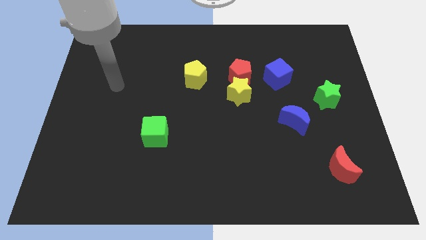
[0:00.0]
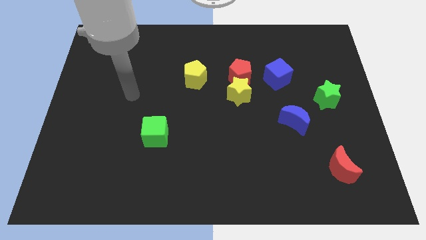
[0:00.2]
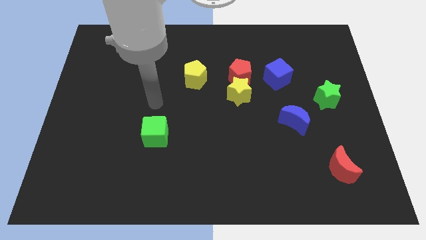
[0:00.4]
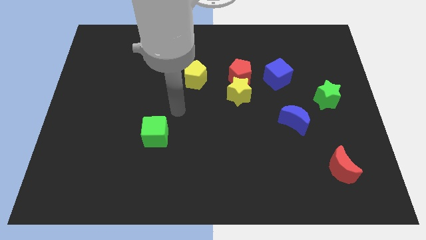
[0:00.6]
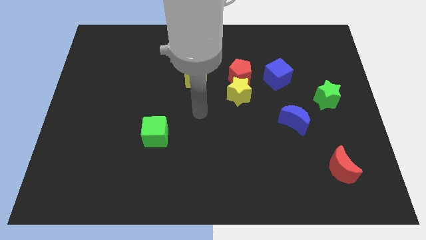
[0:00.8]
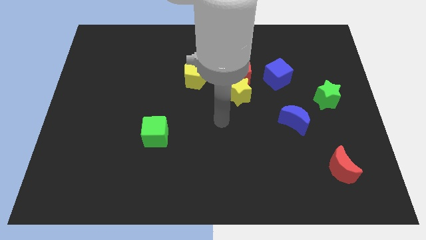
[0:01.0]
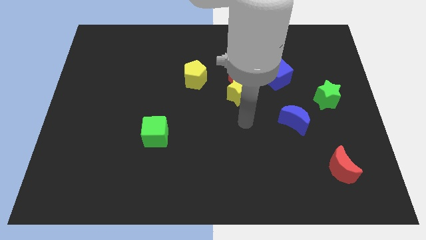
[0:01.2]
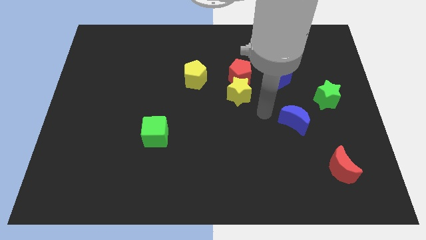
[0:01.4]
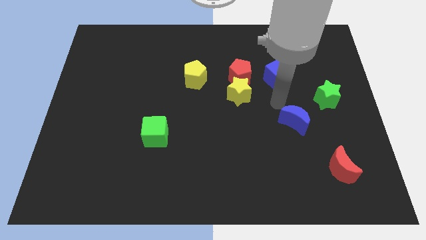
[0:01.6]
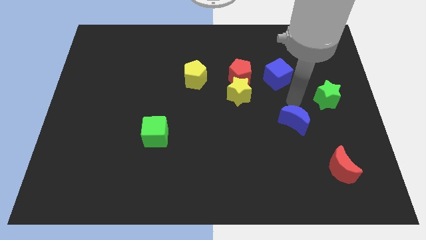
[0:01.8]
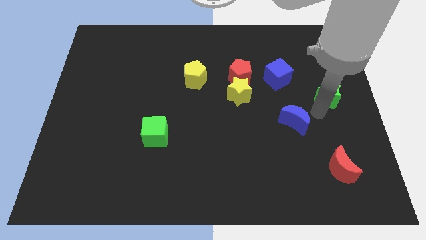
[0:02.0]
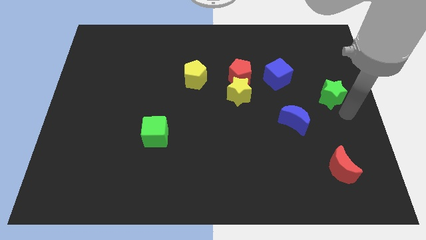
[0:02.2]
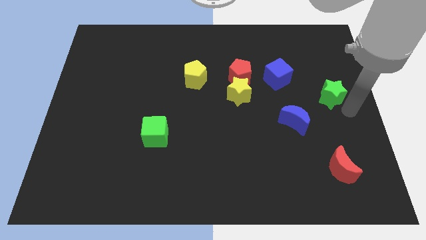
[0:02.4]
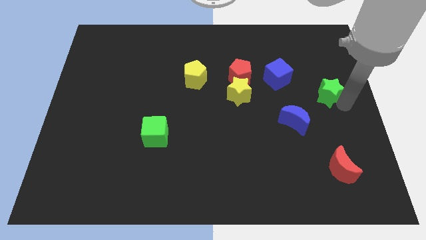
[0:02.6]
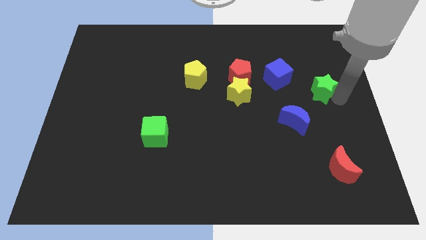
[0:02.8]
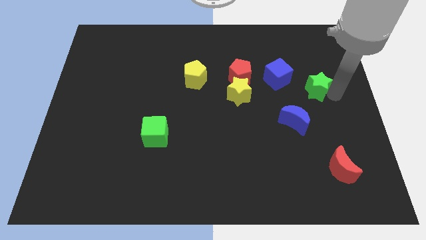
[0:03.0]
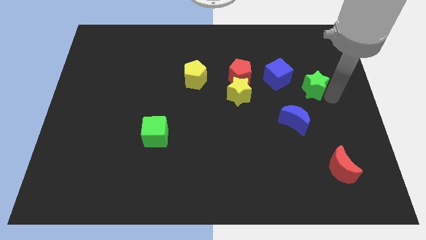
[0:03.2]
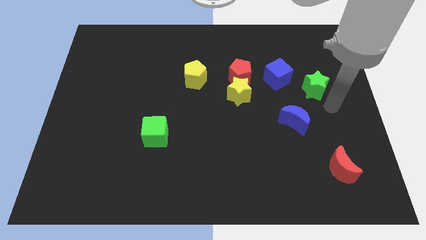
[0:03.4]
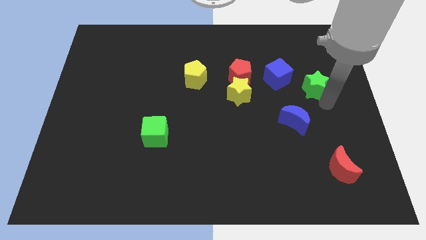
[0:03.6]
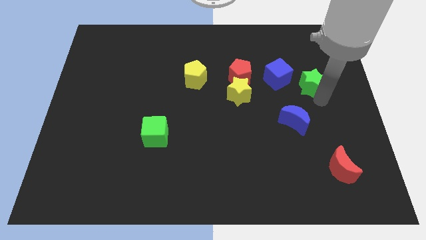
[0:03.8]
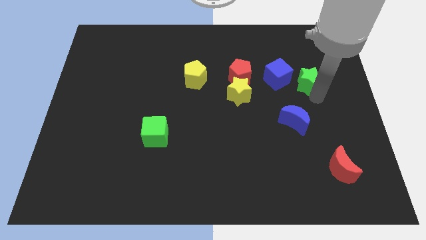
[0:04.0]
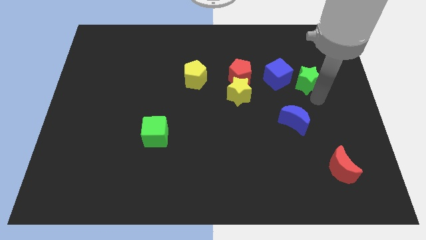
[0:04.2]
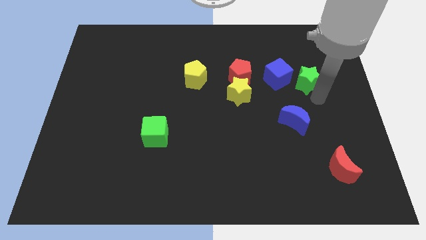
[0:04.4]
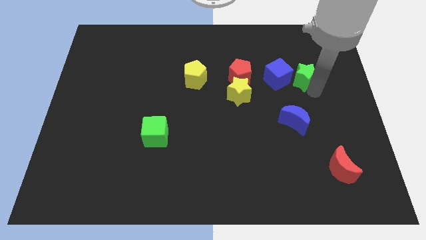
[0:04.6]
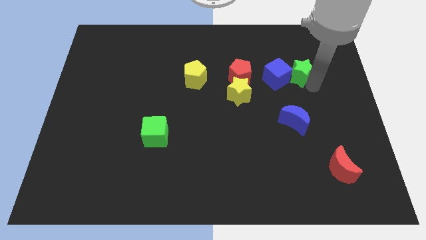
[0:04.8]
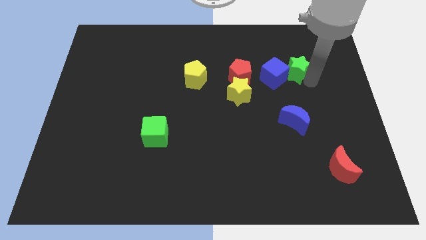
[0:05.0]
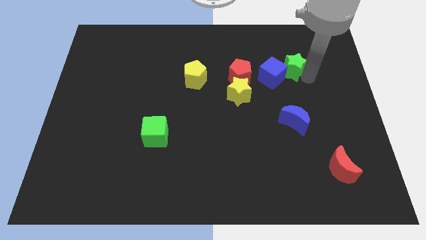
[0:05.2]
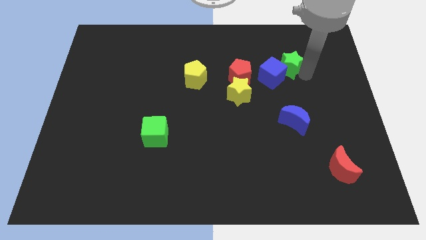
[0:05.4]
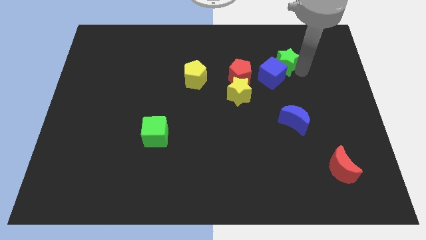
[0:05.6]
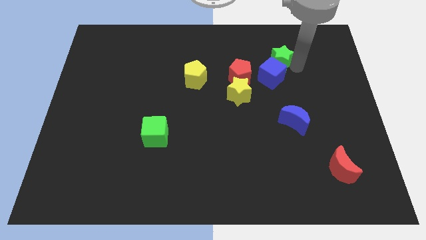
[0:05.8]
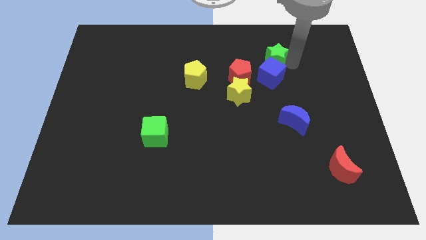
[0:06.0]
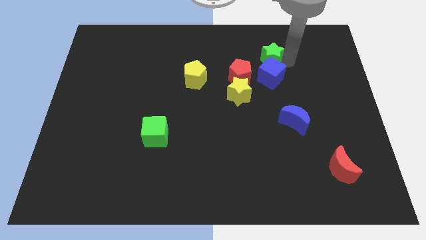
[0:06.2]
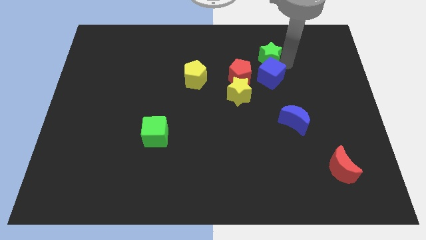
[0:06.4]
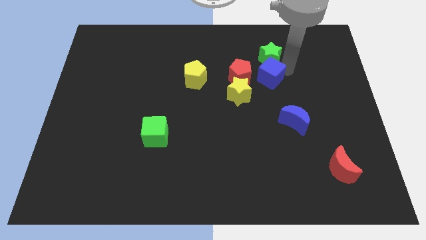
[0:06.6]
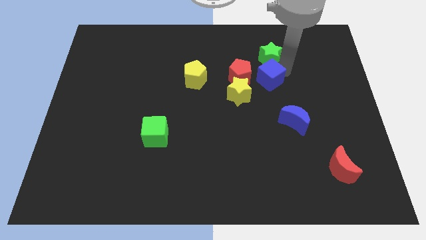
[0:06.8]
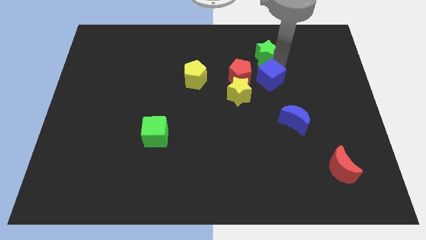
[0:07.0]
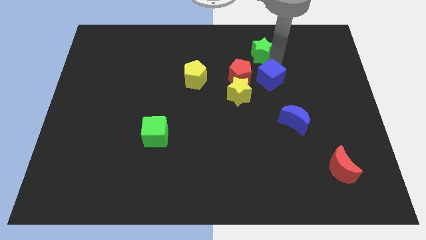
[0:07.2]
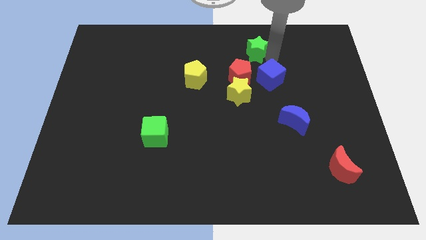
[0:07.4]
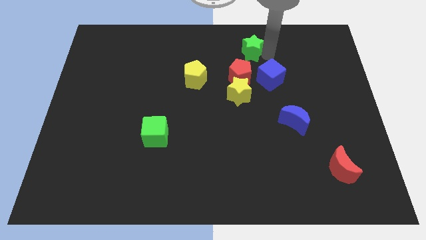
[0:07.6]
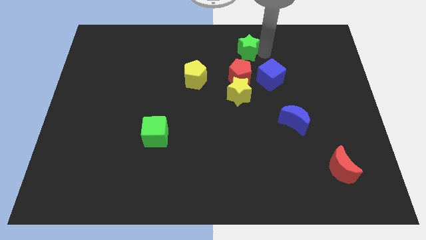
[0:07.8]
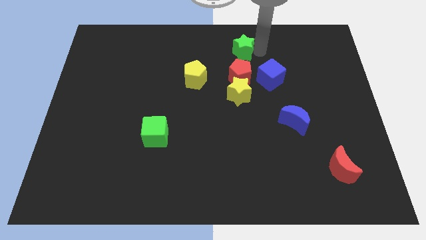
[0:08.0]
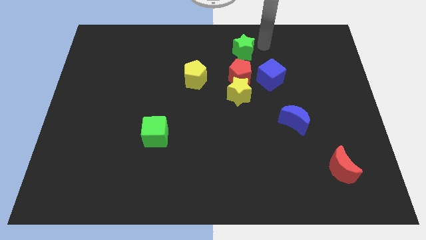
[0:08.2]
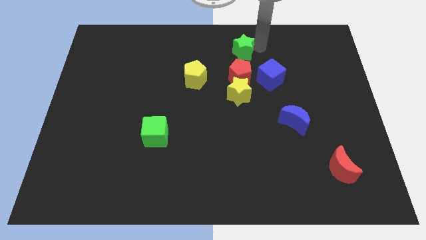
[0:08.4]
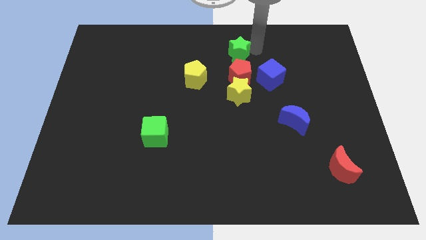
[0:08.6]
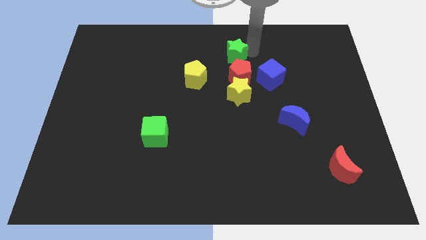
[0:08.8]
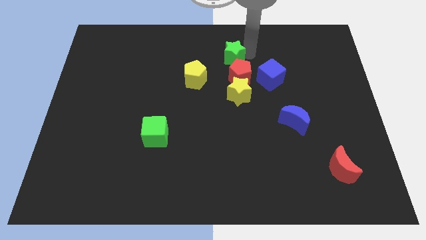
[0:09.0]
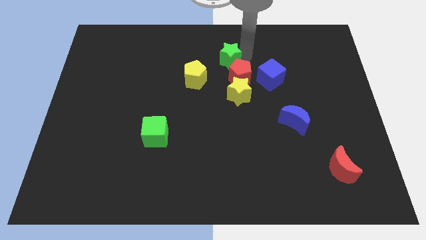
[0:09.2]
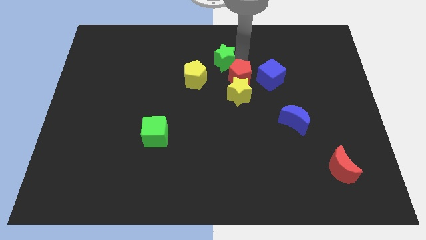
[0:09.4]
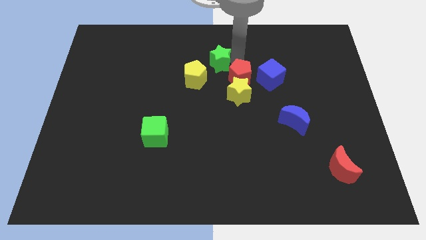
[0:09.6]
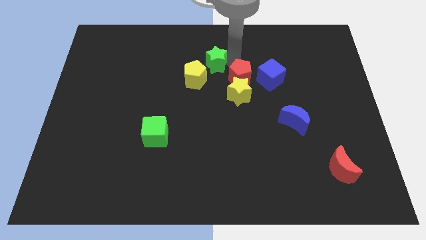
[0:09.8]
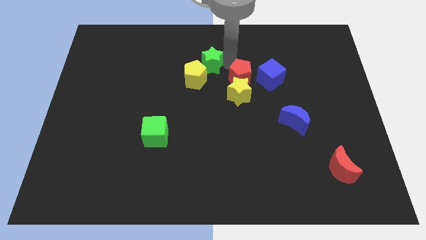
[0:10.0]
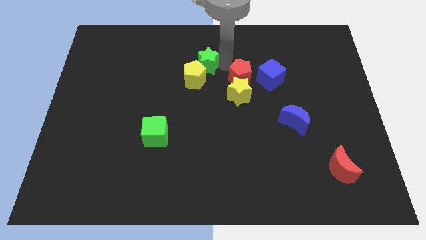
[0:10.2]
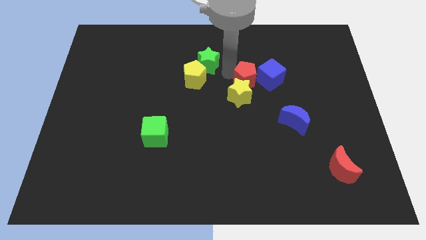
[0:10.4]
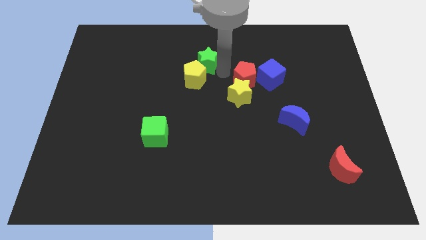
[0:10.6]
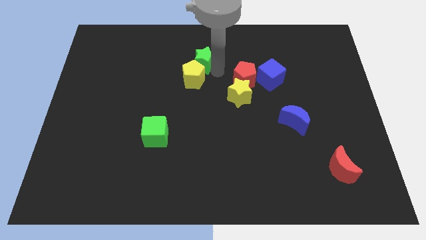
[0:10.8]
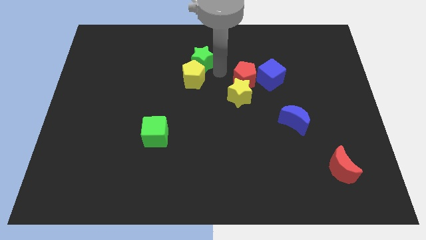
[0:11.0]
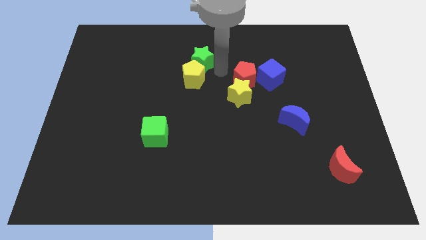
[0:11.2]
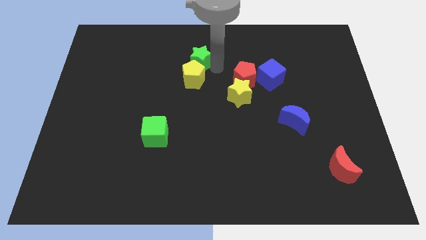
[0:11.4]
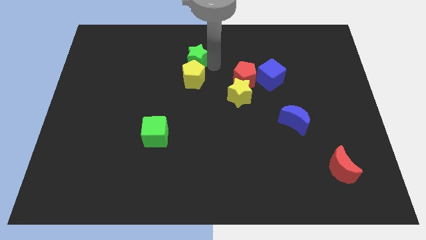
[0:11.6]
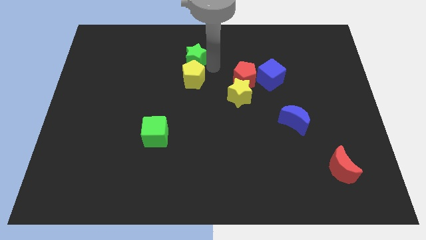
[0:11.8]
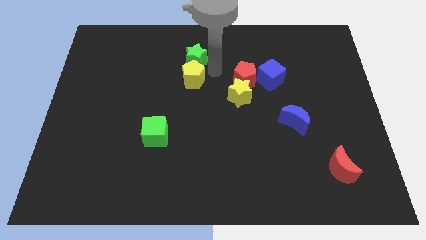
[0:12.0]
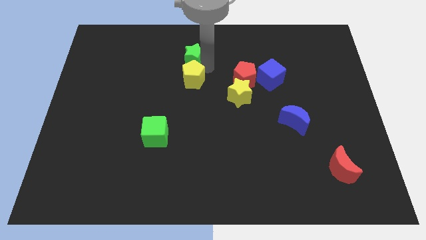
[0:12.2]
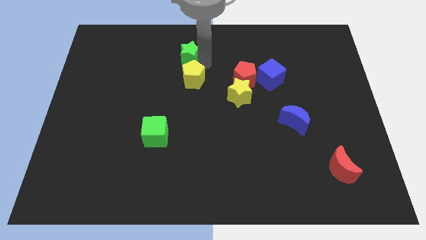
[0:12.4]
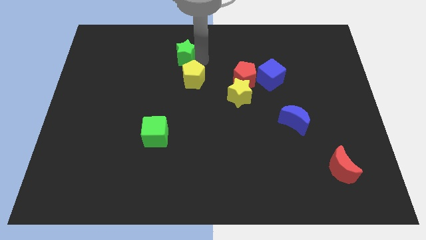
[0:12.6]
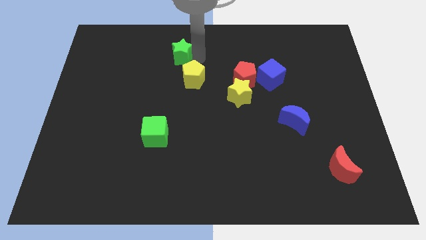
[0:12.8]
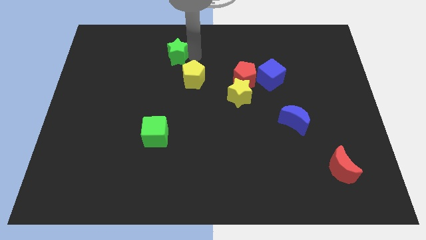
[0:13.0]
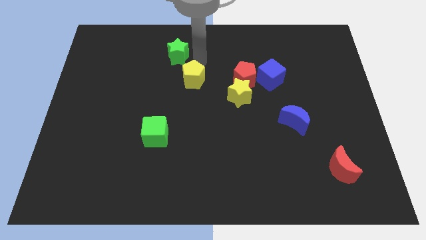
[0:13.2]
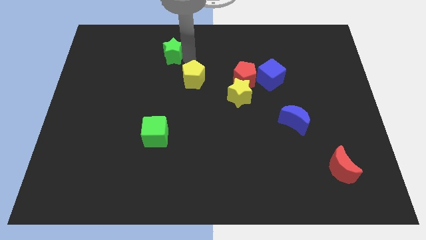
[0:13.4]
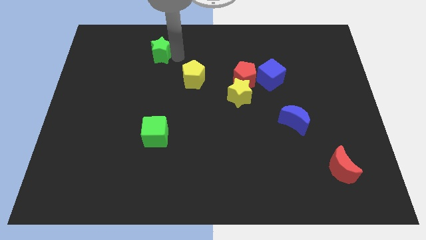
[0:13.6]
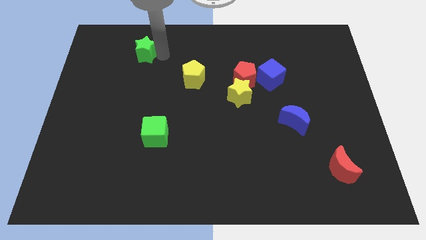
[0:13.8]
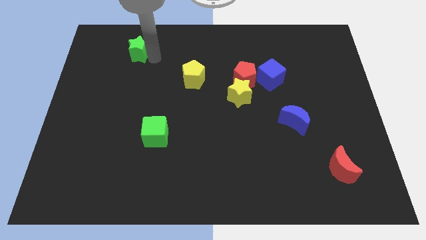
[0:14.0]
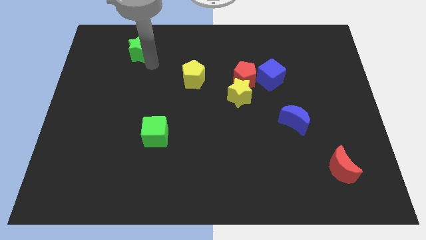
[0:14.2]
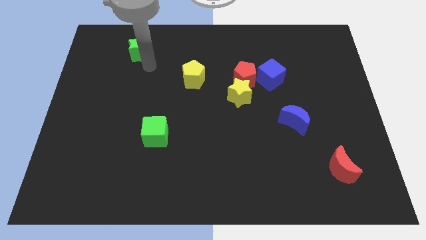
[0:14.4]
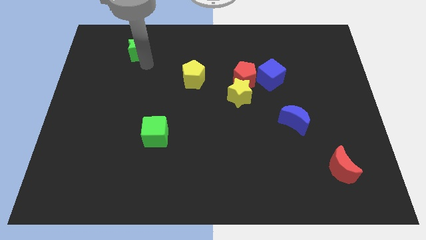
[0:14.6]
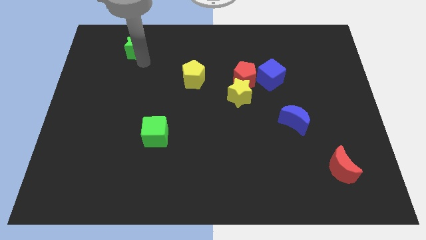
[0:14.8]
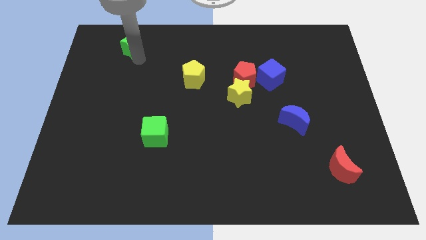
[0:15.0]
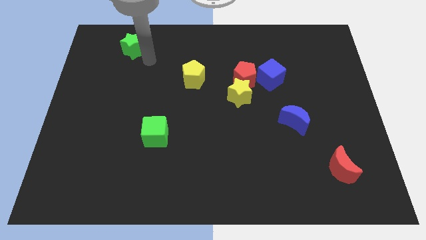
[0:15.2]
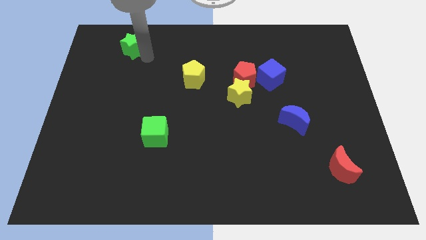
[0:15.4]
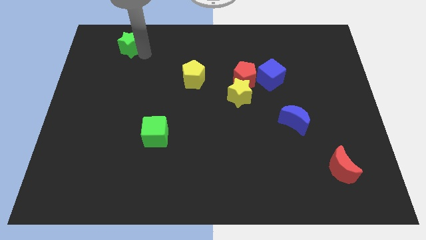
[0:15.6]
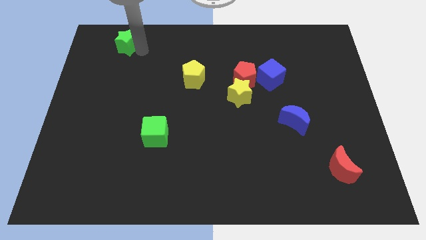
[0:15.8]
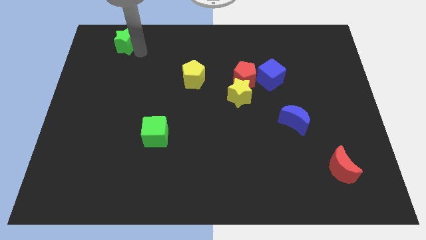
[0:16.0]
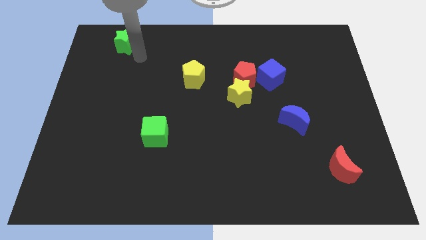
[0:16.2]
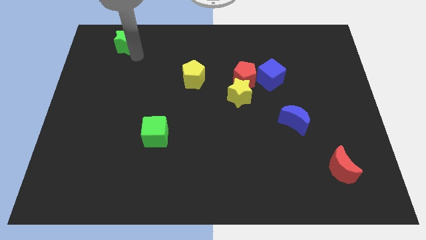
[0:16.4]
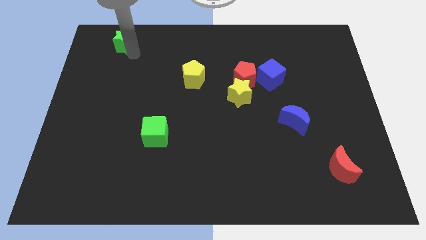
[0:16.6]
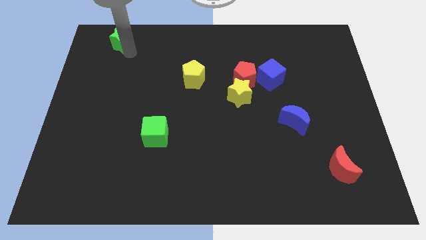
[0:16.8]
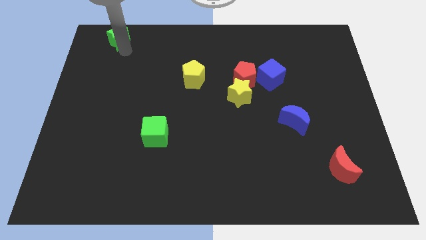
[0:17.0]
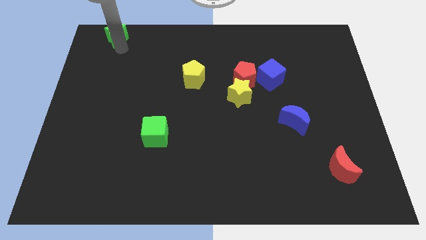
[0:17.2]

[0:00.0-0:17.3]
push the green star to the top left of the board
